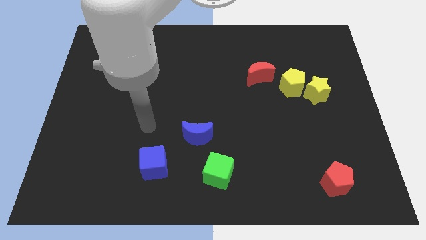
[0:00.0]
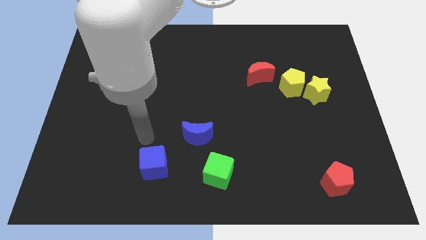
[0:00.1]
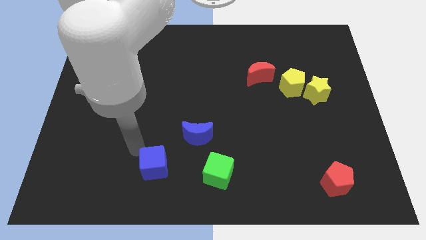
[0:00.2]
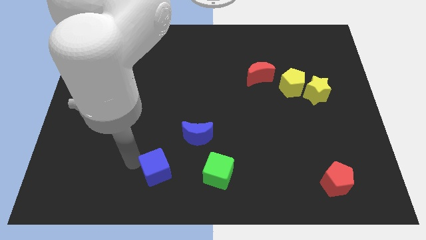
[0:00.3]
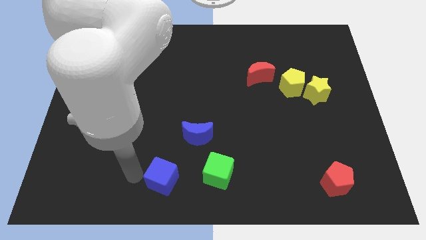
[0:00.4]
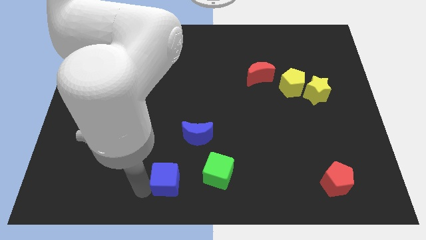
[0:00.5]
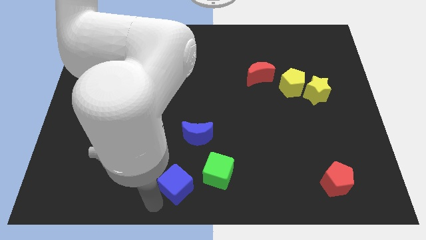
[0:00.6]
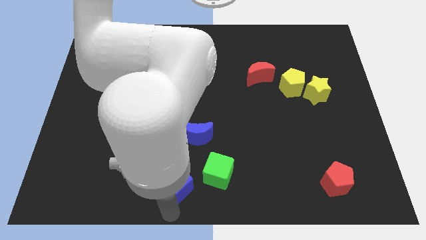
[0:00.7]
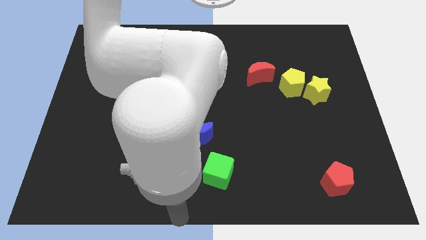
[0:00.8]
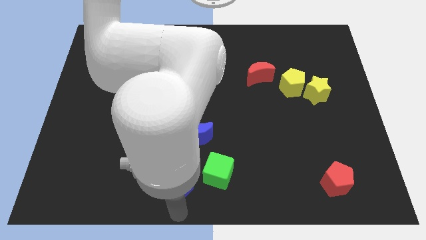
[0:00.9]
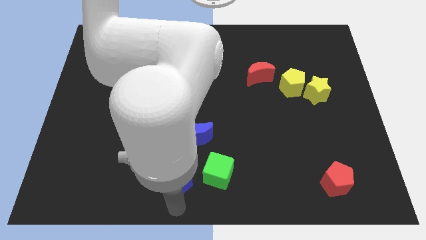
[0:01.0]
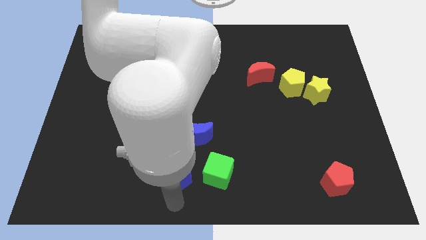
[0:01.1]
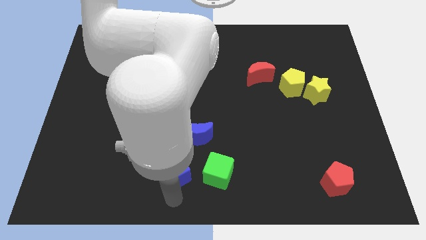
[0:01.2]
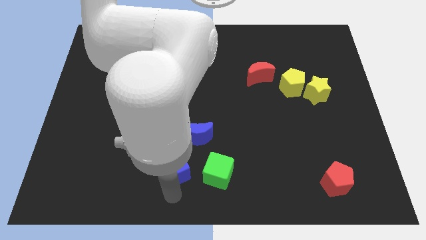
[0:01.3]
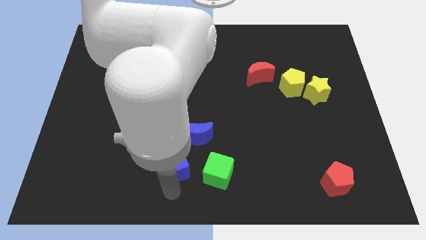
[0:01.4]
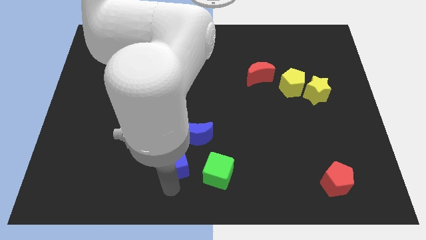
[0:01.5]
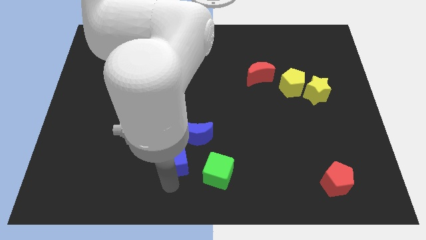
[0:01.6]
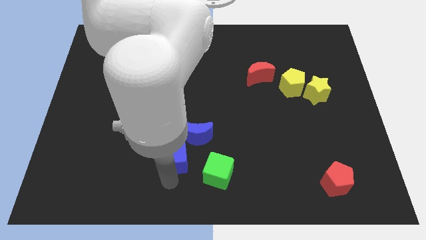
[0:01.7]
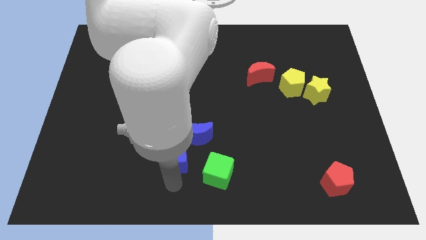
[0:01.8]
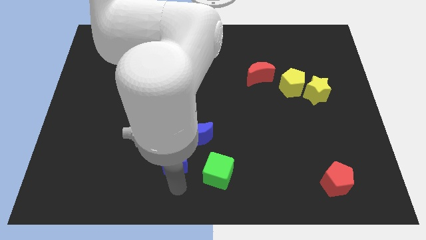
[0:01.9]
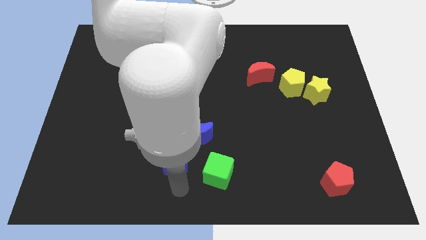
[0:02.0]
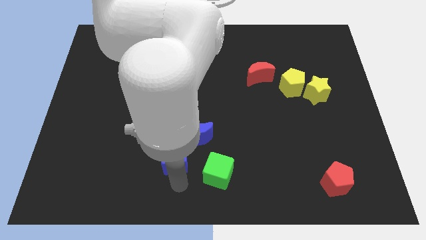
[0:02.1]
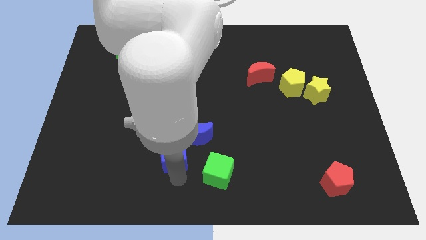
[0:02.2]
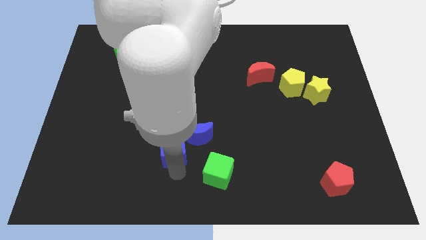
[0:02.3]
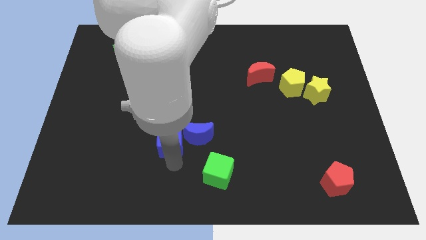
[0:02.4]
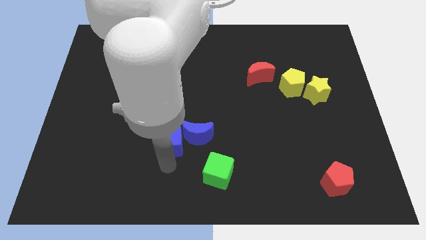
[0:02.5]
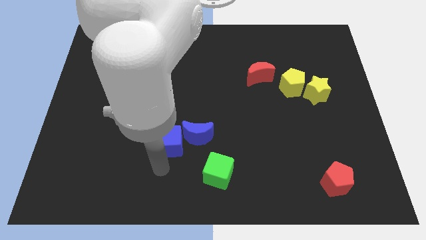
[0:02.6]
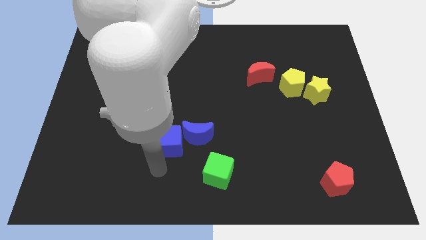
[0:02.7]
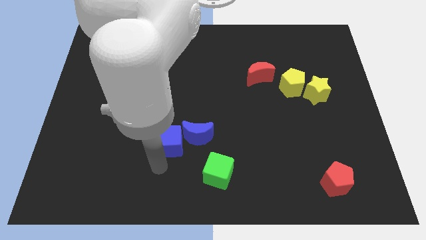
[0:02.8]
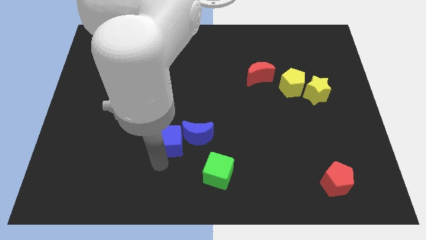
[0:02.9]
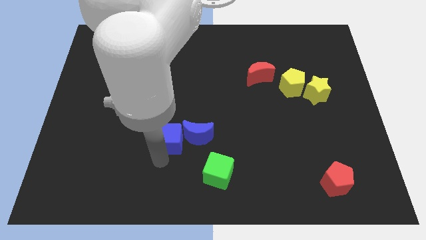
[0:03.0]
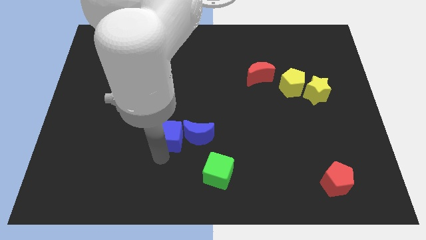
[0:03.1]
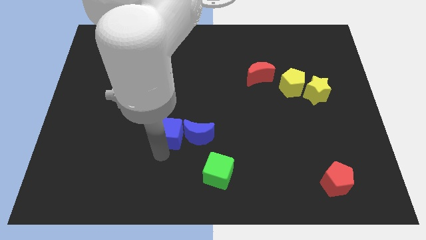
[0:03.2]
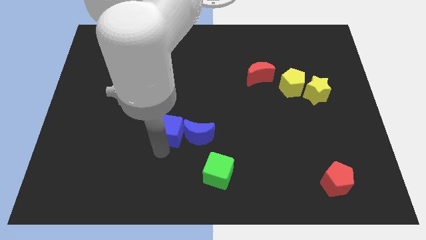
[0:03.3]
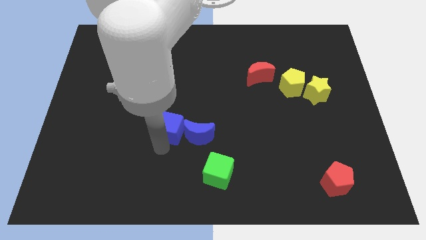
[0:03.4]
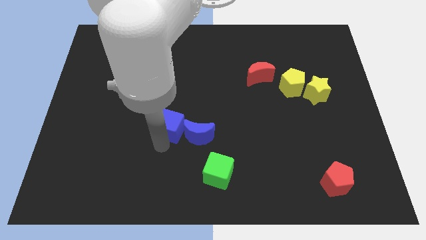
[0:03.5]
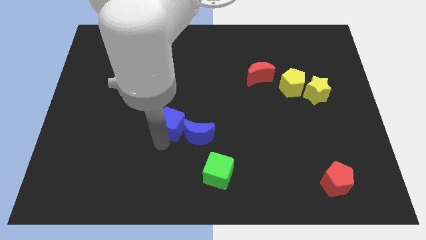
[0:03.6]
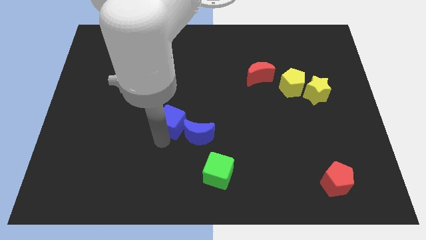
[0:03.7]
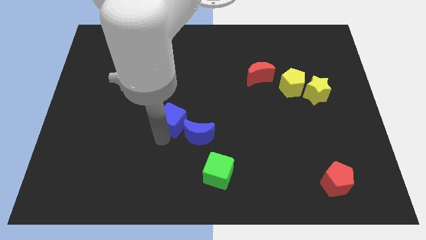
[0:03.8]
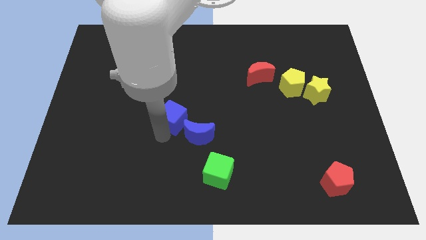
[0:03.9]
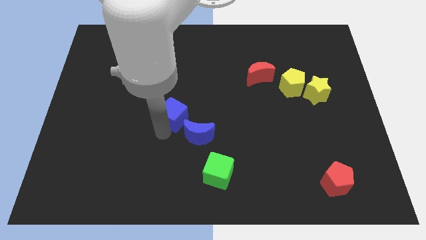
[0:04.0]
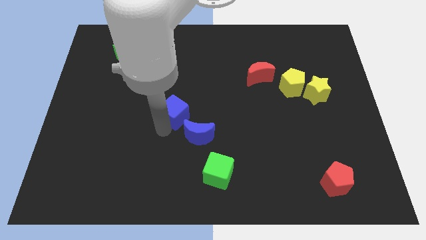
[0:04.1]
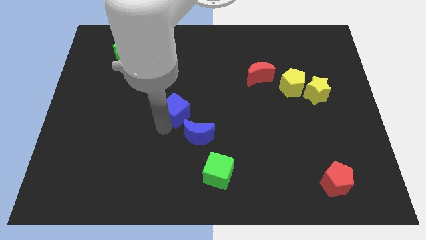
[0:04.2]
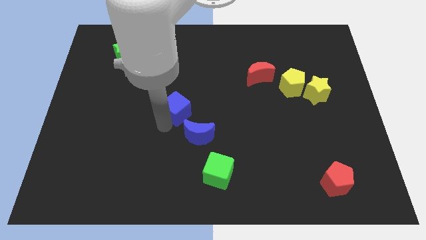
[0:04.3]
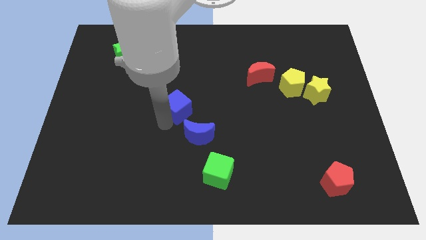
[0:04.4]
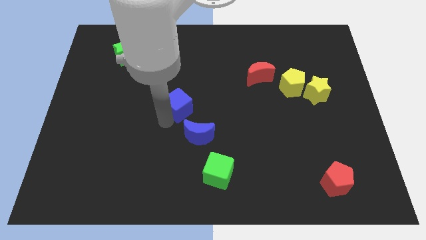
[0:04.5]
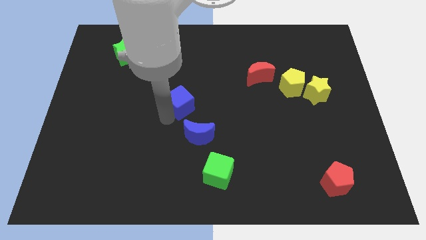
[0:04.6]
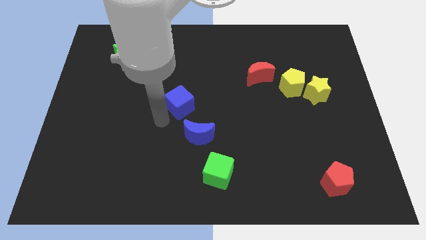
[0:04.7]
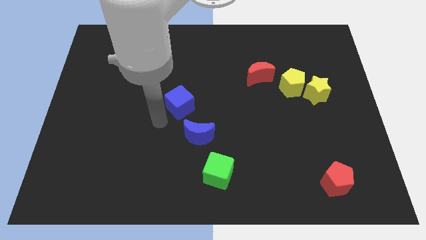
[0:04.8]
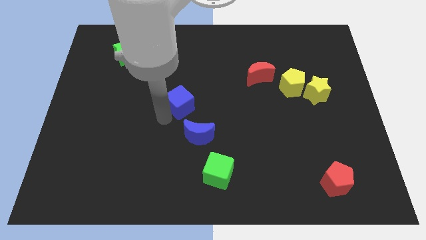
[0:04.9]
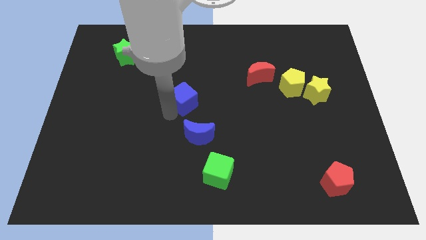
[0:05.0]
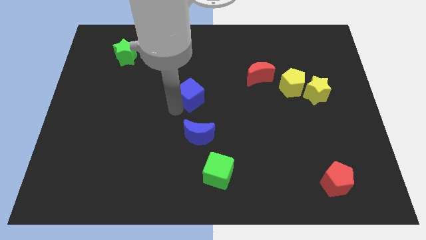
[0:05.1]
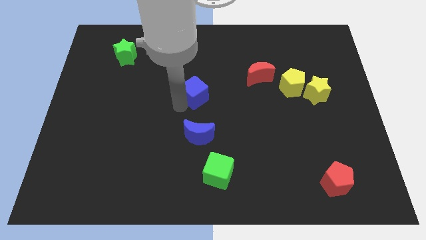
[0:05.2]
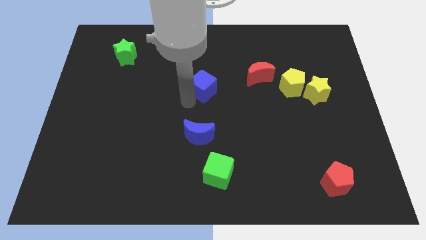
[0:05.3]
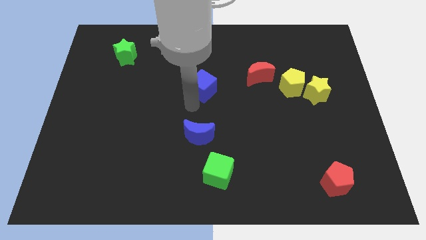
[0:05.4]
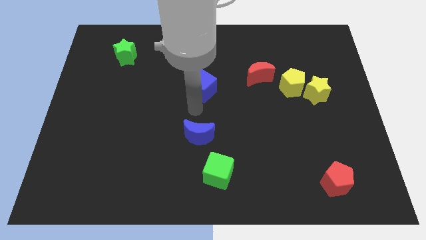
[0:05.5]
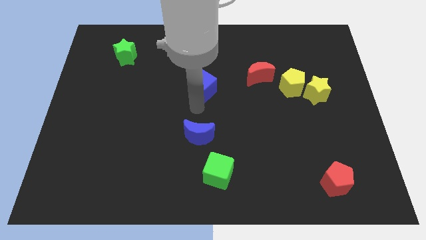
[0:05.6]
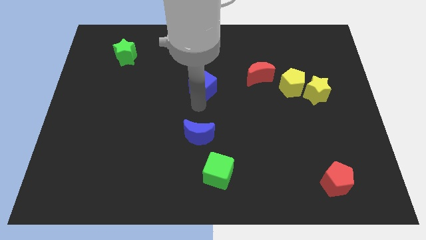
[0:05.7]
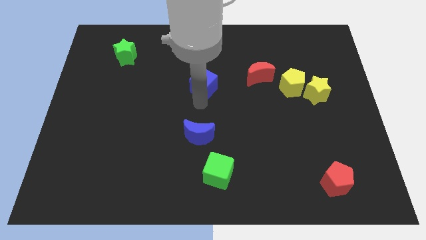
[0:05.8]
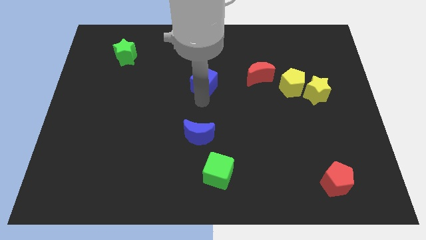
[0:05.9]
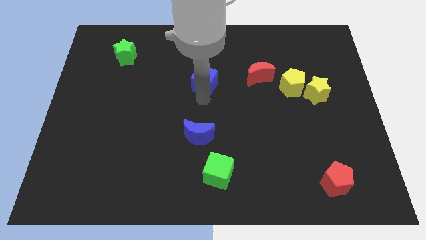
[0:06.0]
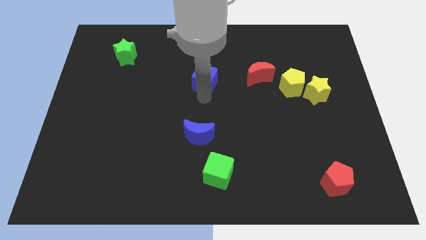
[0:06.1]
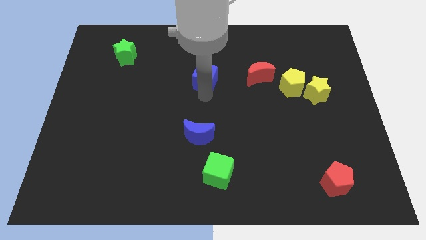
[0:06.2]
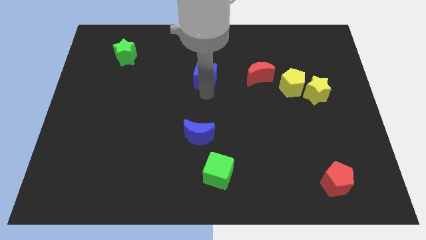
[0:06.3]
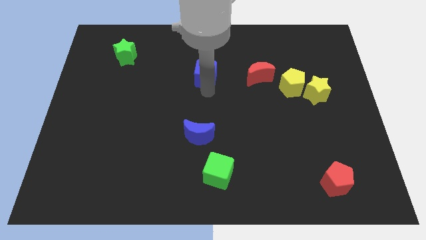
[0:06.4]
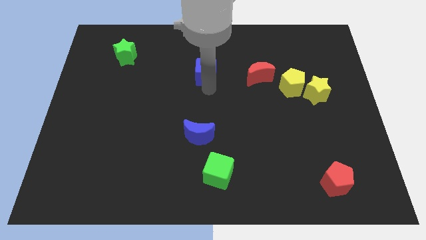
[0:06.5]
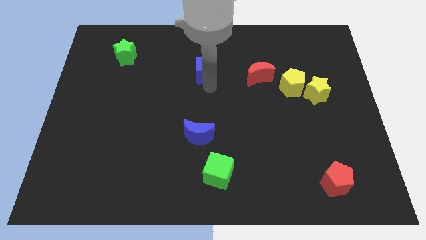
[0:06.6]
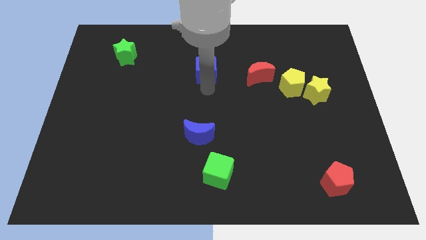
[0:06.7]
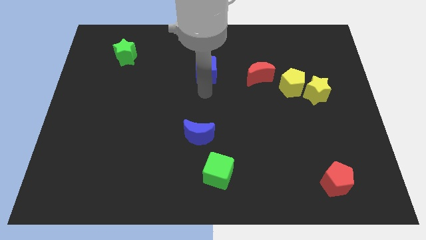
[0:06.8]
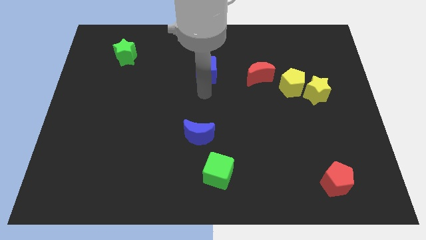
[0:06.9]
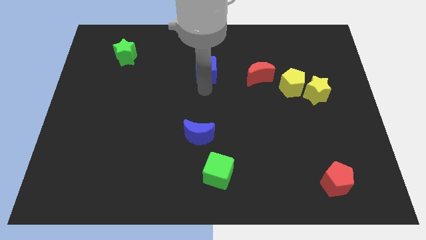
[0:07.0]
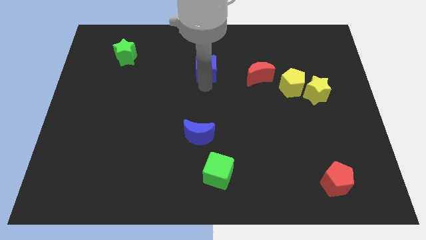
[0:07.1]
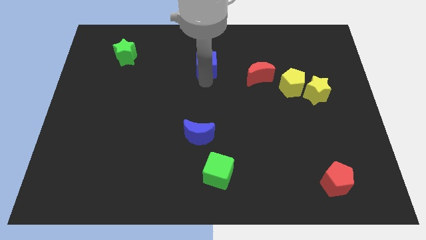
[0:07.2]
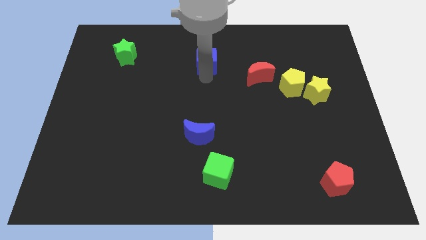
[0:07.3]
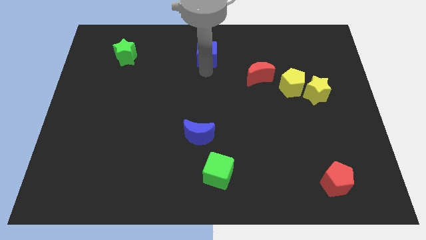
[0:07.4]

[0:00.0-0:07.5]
push the blue cube to the top side
